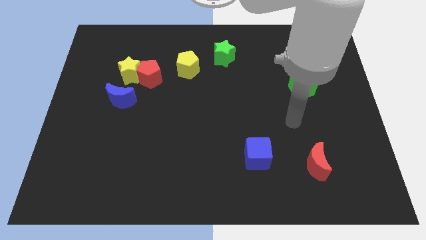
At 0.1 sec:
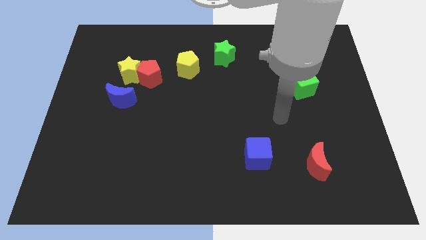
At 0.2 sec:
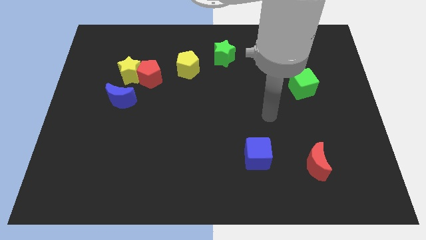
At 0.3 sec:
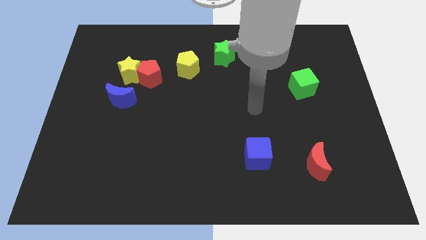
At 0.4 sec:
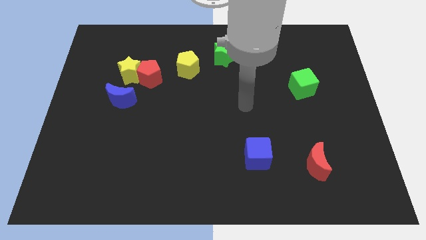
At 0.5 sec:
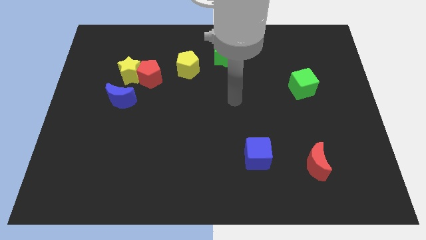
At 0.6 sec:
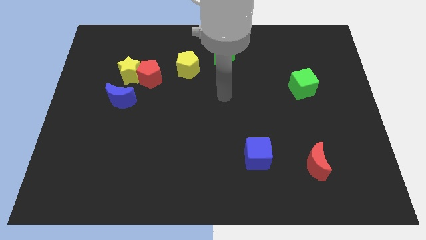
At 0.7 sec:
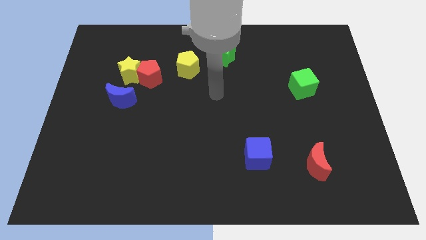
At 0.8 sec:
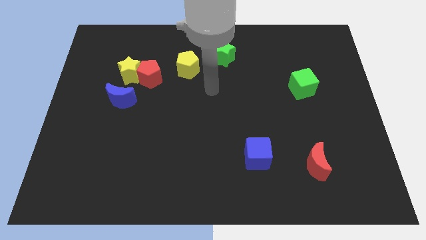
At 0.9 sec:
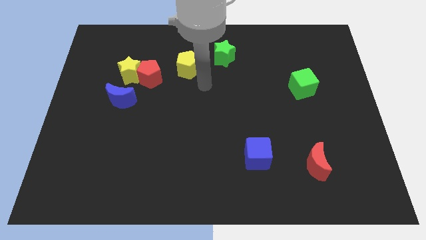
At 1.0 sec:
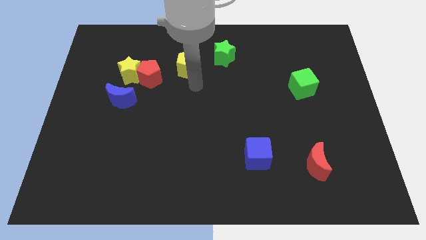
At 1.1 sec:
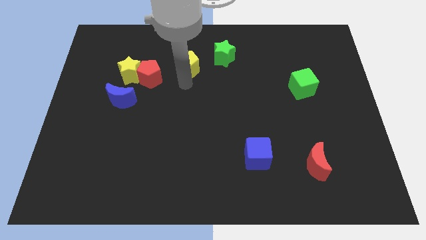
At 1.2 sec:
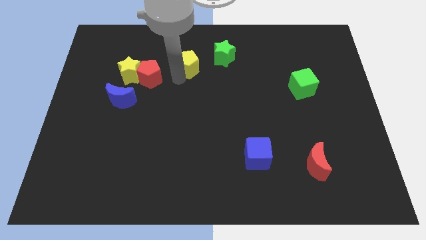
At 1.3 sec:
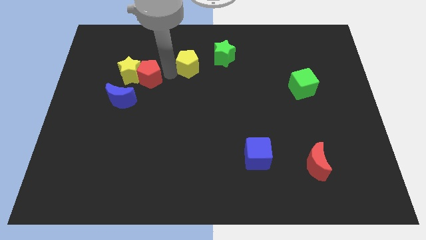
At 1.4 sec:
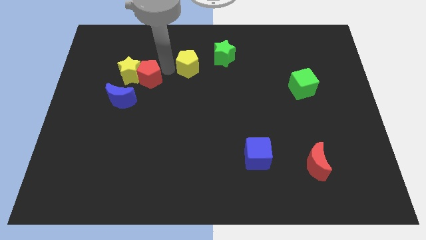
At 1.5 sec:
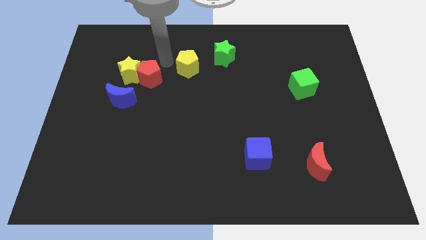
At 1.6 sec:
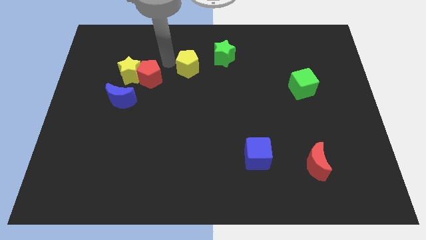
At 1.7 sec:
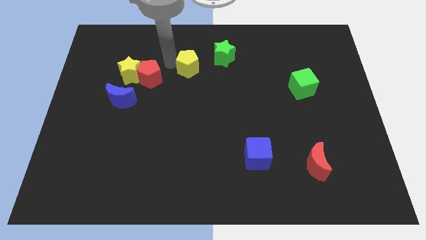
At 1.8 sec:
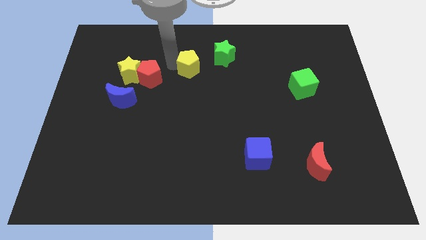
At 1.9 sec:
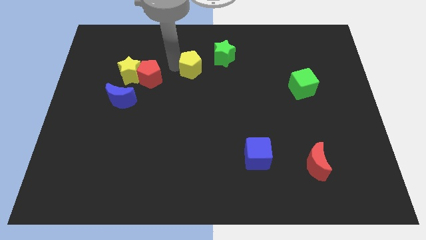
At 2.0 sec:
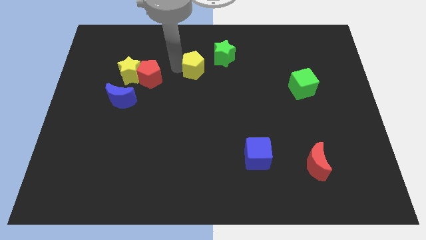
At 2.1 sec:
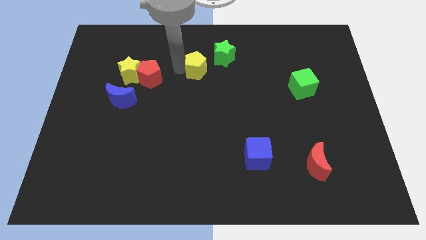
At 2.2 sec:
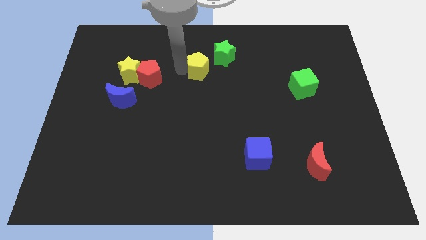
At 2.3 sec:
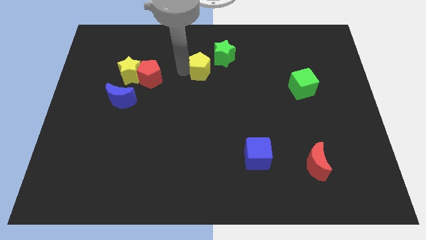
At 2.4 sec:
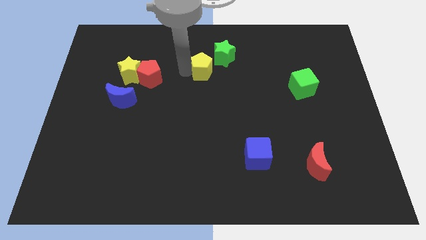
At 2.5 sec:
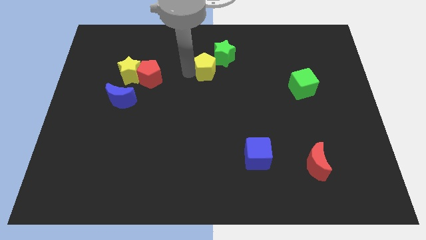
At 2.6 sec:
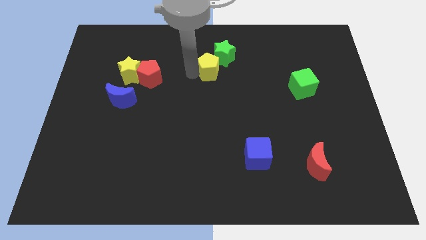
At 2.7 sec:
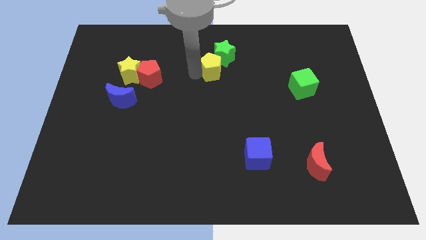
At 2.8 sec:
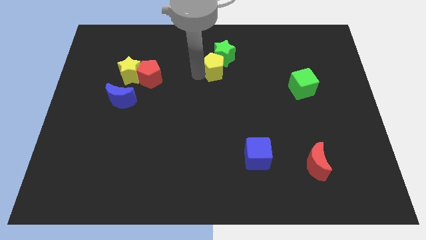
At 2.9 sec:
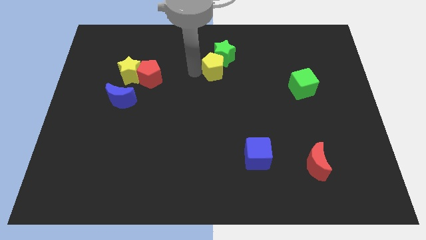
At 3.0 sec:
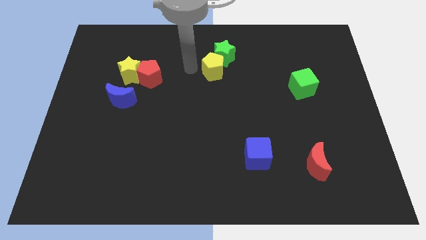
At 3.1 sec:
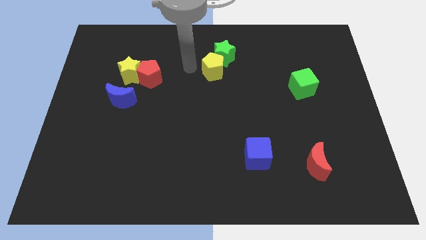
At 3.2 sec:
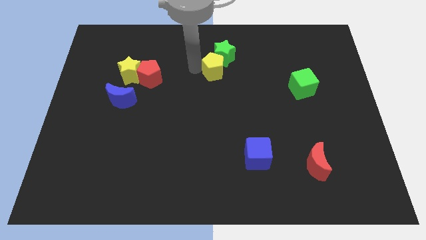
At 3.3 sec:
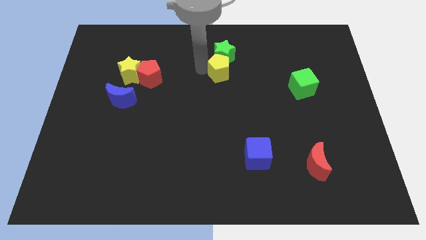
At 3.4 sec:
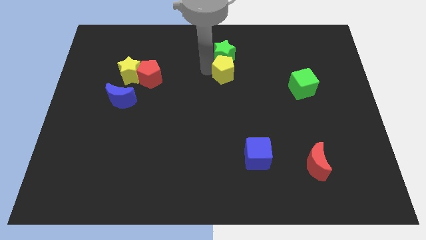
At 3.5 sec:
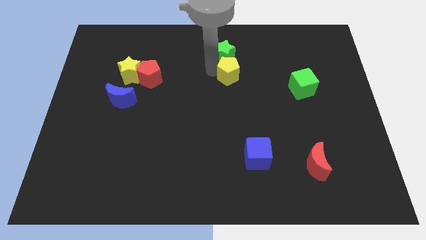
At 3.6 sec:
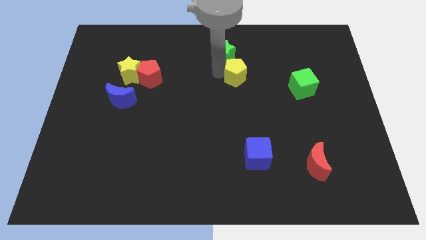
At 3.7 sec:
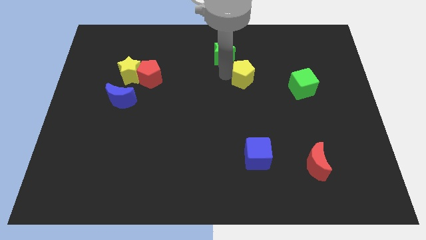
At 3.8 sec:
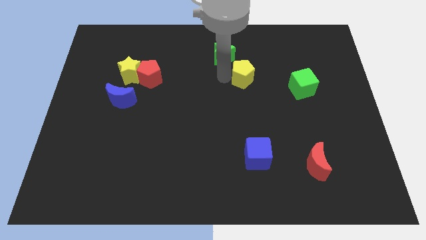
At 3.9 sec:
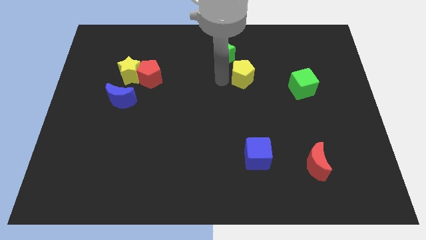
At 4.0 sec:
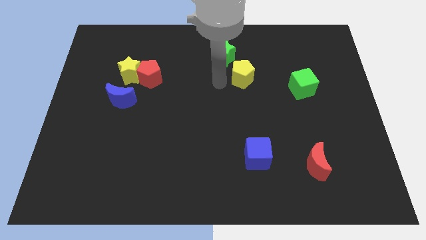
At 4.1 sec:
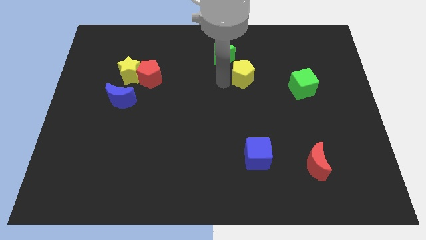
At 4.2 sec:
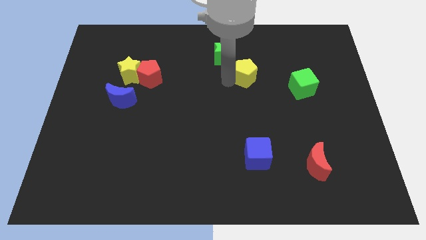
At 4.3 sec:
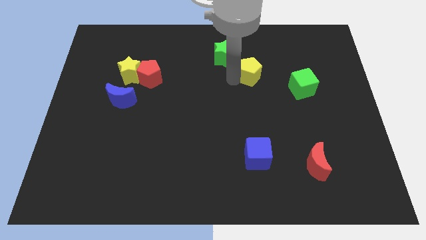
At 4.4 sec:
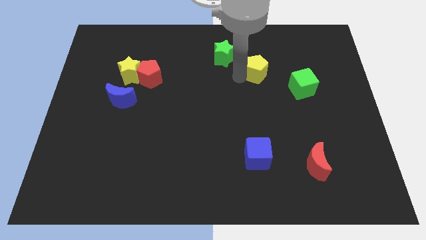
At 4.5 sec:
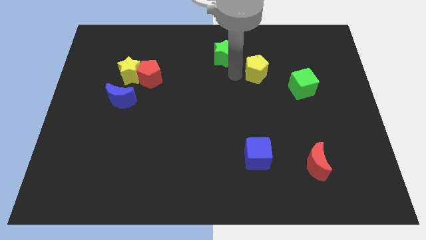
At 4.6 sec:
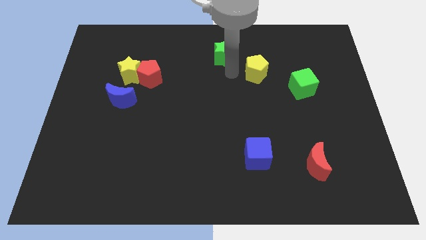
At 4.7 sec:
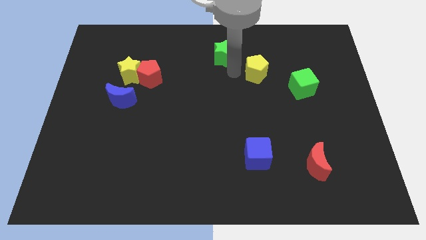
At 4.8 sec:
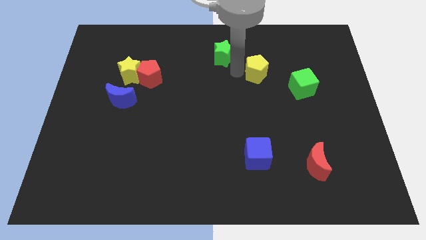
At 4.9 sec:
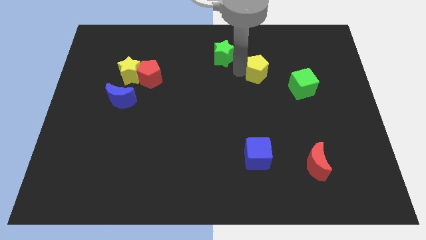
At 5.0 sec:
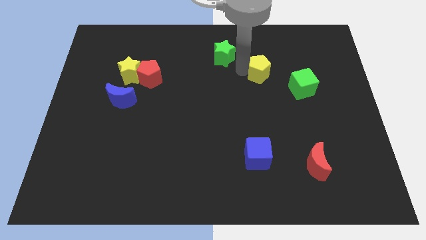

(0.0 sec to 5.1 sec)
slide the yellow pentagon diagonally up and to the left of the green cube

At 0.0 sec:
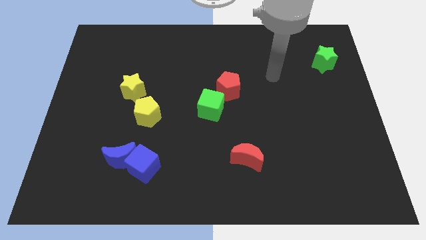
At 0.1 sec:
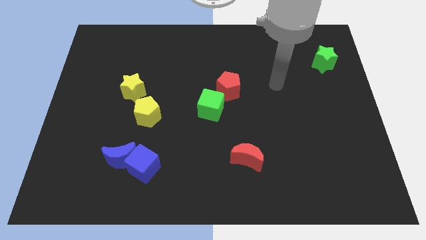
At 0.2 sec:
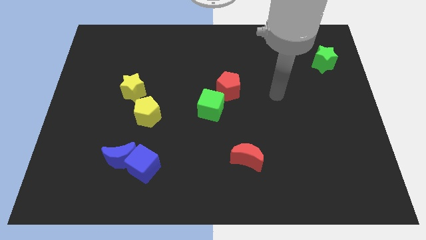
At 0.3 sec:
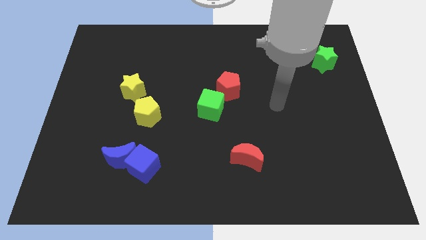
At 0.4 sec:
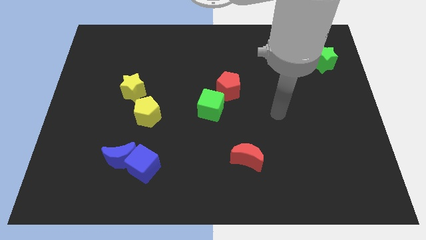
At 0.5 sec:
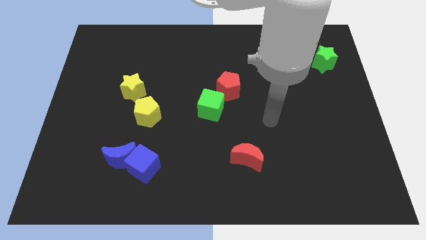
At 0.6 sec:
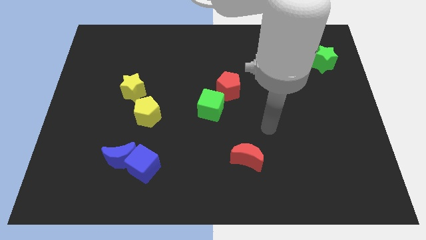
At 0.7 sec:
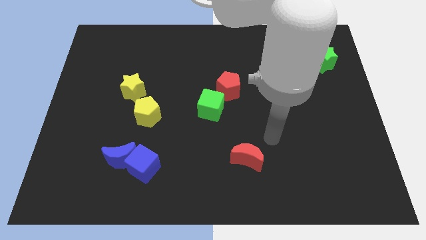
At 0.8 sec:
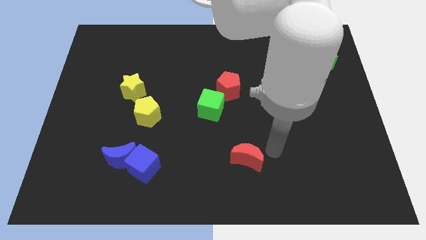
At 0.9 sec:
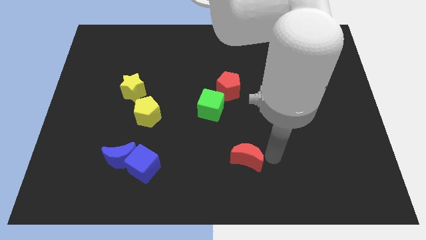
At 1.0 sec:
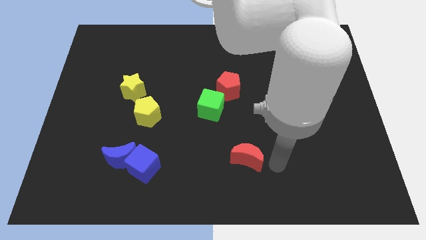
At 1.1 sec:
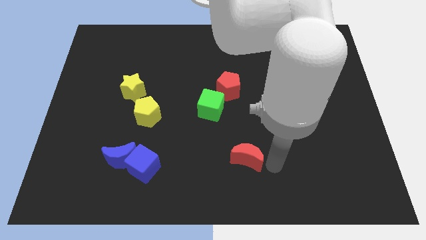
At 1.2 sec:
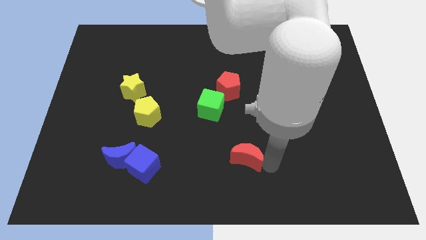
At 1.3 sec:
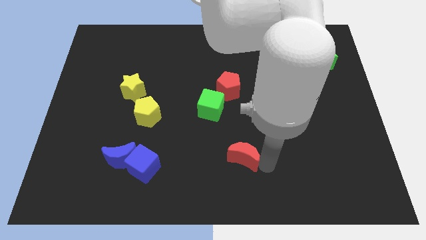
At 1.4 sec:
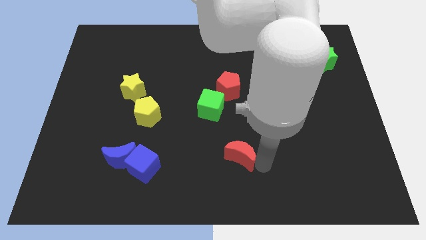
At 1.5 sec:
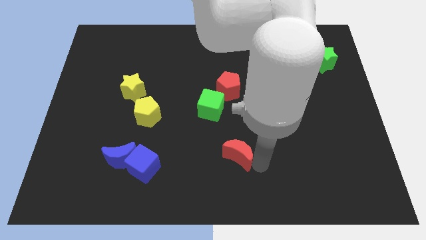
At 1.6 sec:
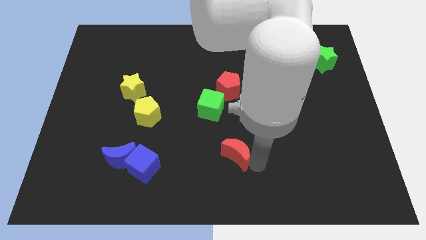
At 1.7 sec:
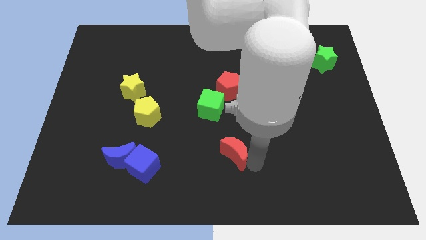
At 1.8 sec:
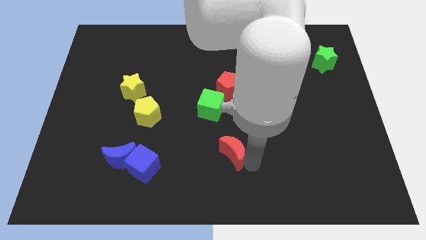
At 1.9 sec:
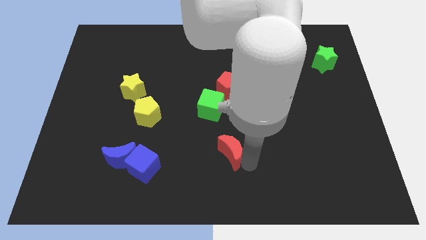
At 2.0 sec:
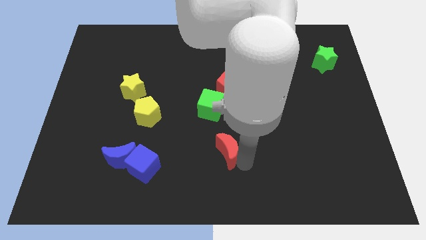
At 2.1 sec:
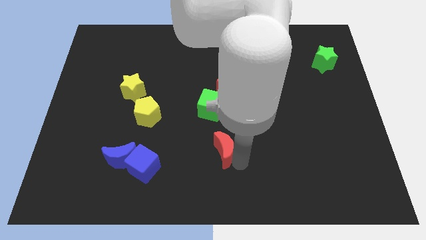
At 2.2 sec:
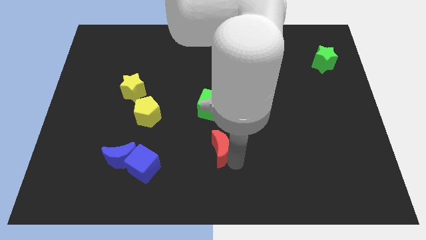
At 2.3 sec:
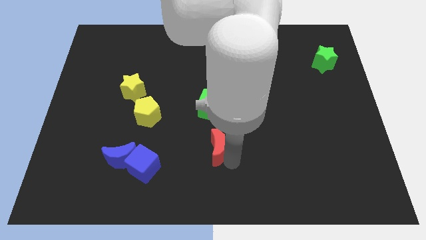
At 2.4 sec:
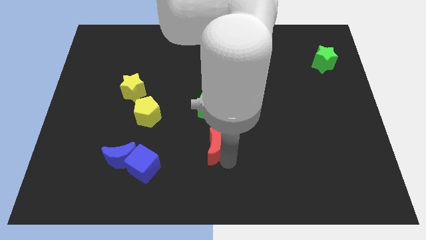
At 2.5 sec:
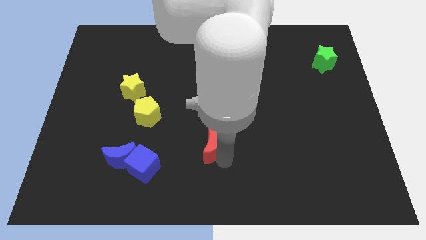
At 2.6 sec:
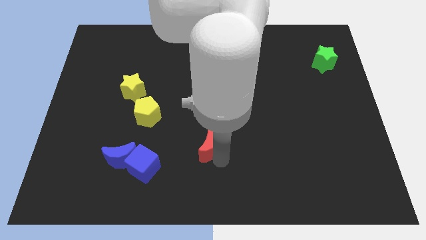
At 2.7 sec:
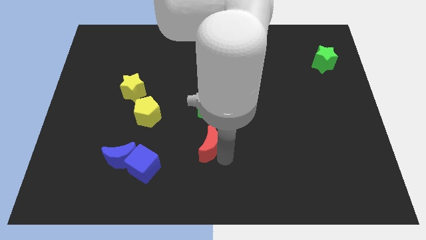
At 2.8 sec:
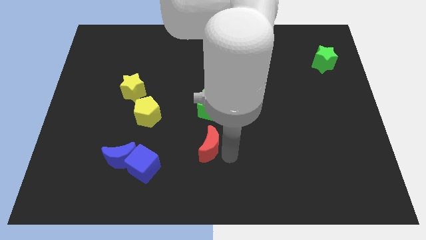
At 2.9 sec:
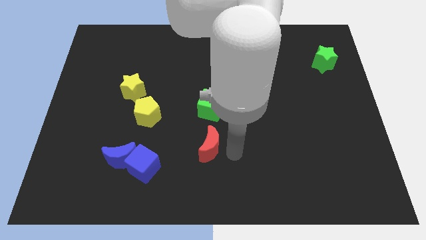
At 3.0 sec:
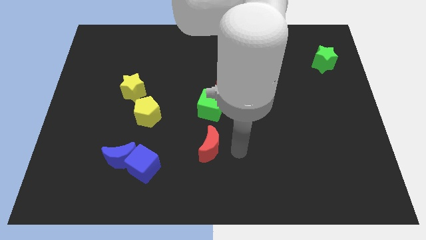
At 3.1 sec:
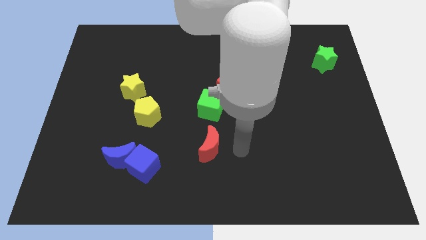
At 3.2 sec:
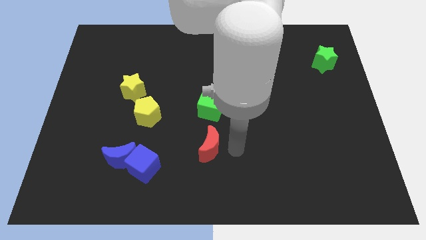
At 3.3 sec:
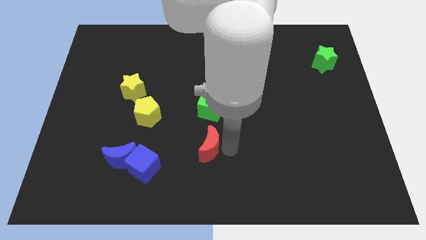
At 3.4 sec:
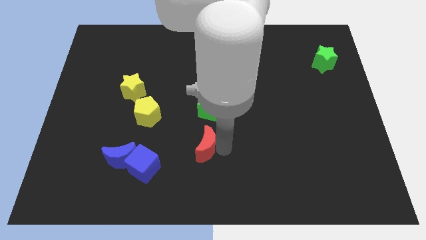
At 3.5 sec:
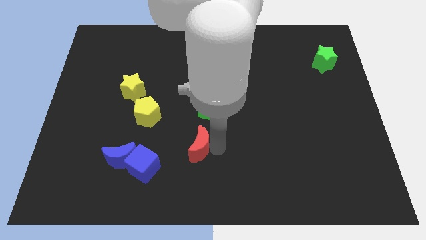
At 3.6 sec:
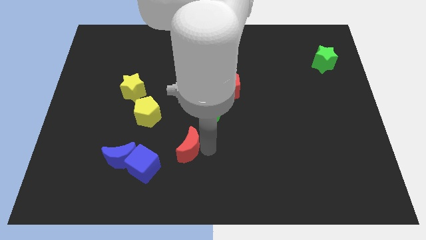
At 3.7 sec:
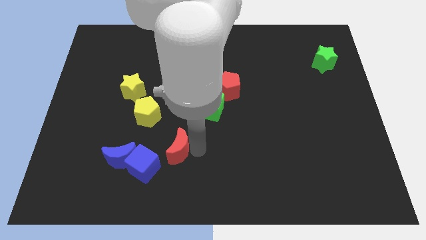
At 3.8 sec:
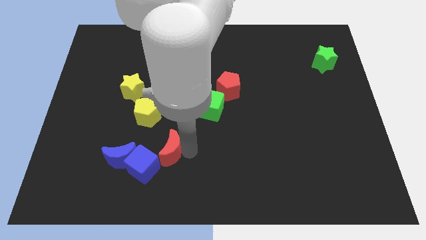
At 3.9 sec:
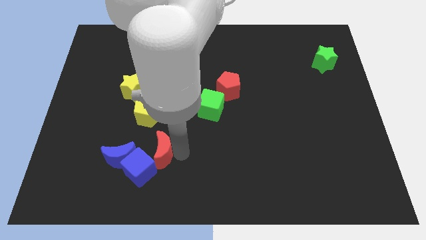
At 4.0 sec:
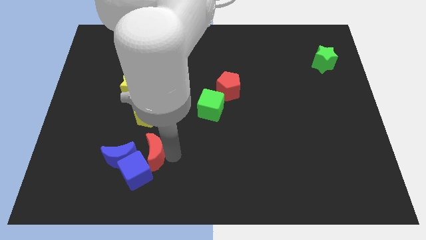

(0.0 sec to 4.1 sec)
push the red moon diagonally up and to the right of the blue moon
